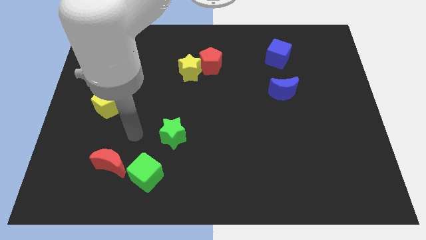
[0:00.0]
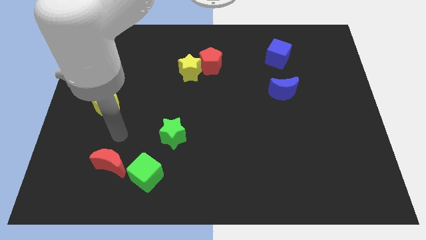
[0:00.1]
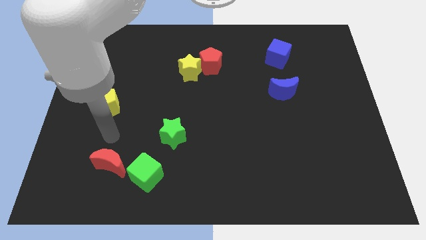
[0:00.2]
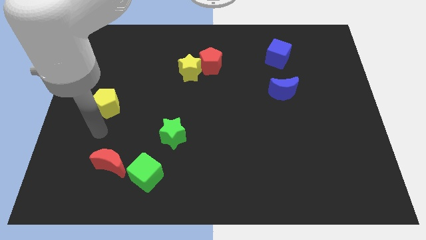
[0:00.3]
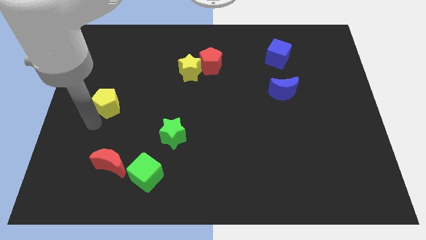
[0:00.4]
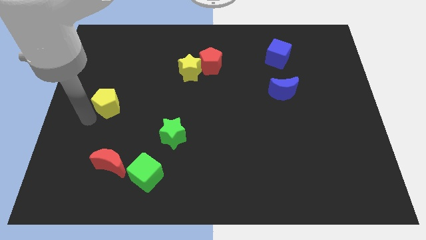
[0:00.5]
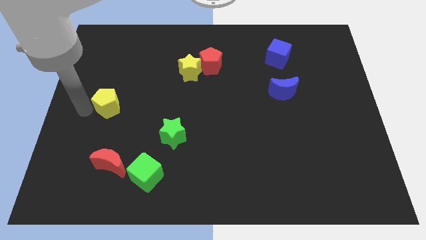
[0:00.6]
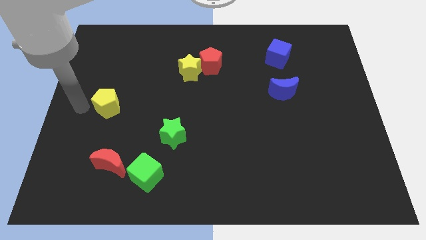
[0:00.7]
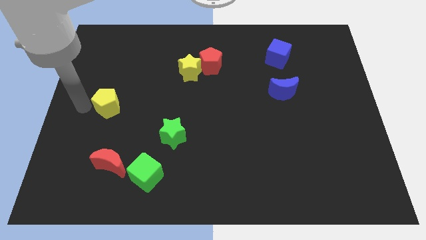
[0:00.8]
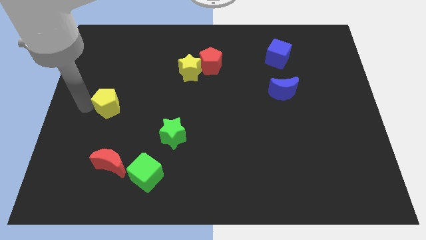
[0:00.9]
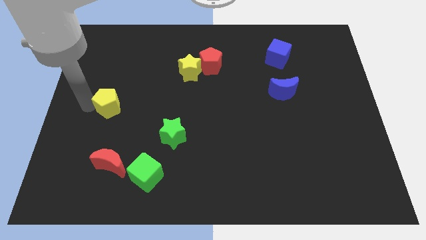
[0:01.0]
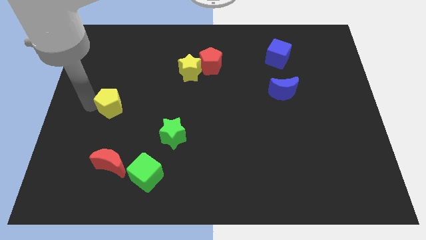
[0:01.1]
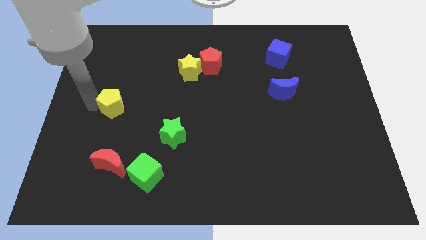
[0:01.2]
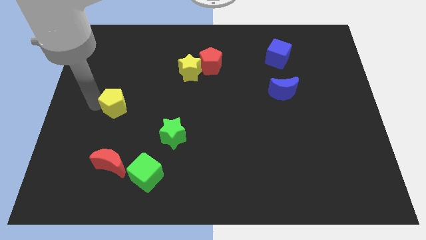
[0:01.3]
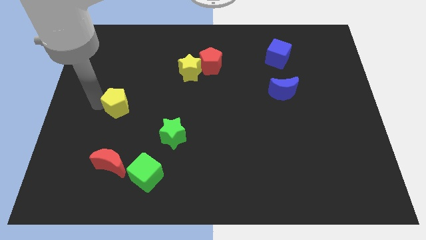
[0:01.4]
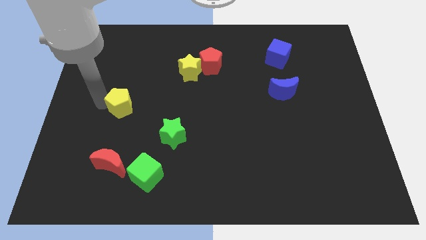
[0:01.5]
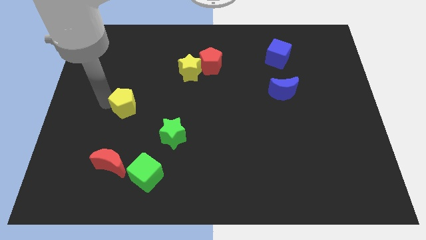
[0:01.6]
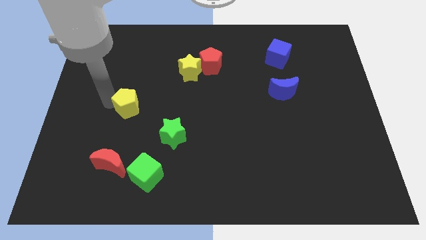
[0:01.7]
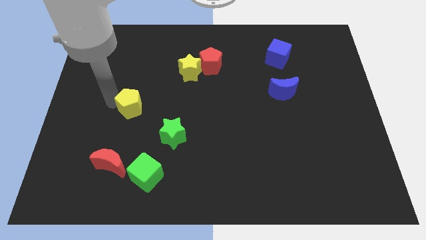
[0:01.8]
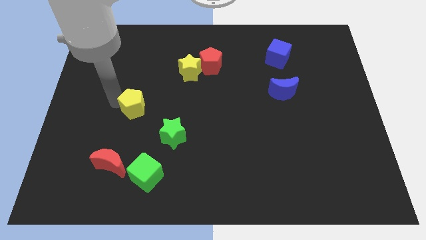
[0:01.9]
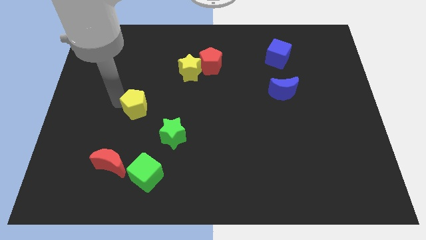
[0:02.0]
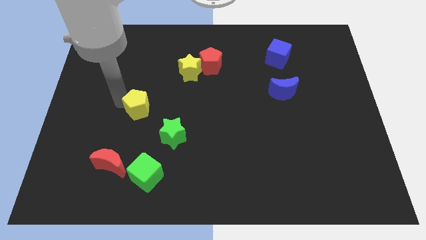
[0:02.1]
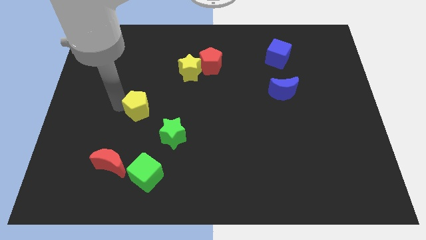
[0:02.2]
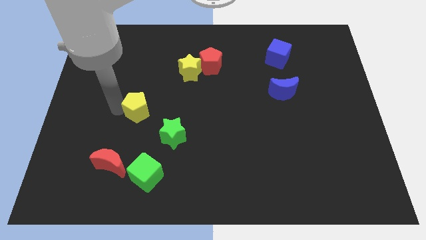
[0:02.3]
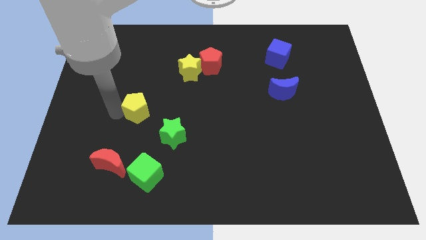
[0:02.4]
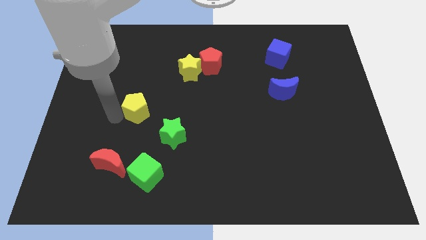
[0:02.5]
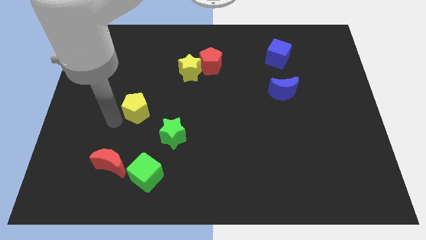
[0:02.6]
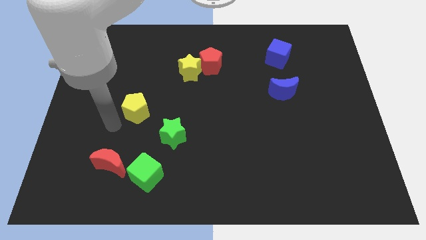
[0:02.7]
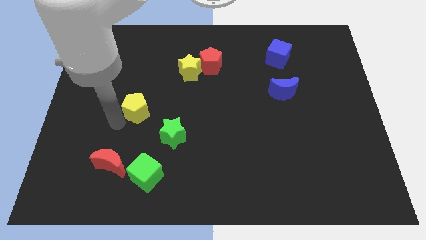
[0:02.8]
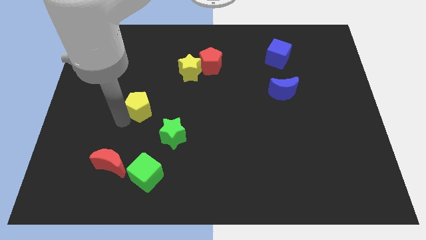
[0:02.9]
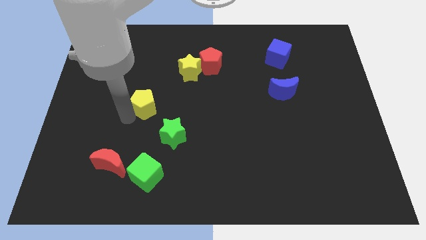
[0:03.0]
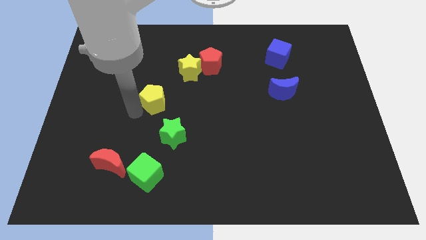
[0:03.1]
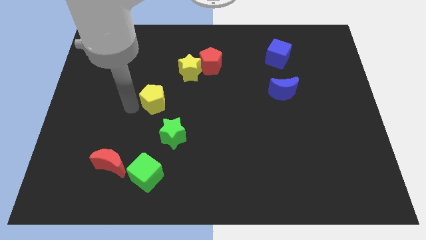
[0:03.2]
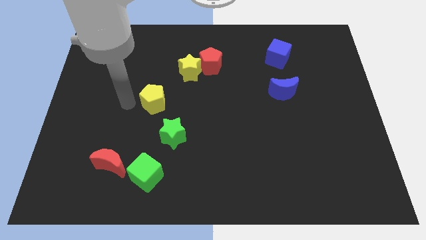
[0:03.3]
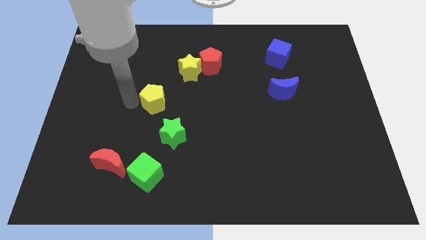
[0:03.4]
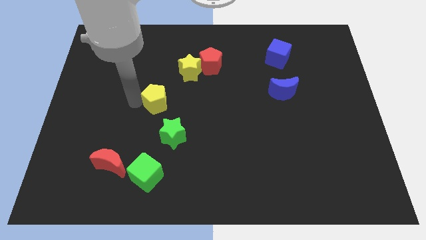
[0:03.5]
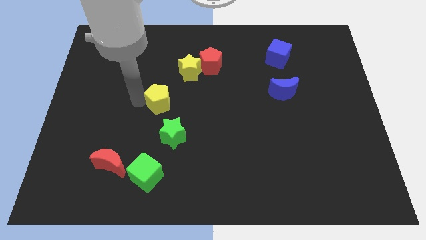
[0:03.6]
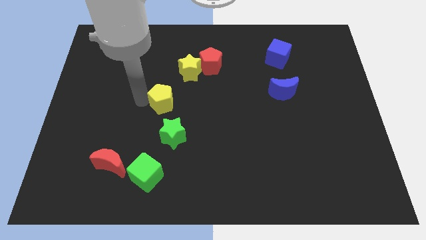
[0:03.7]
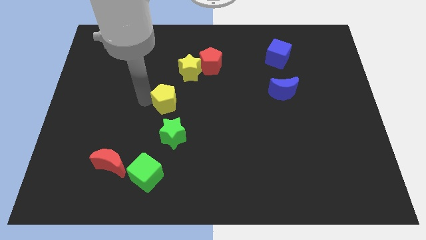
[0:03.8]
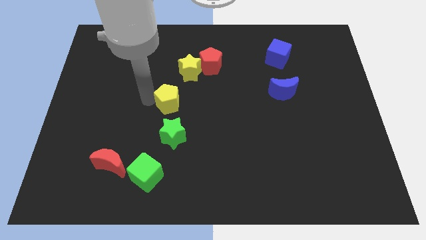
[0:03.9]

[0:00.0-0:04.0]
push the yellow pentagon to the bottom side of the yellow star

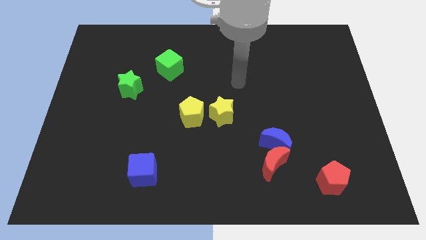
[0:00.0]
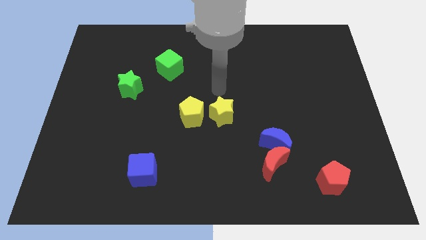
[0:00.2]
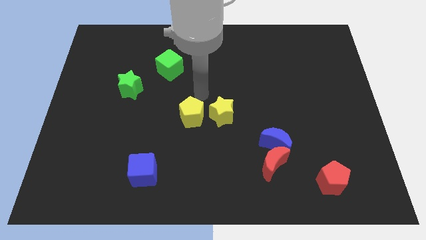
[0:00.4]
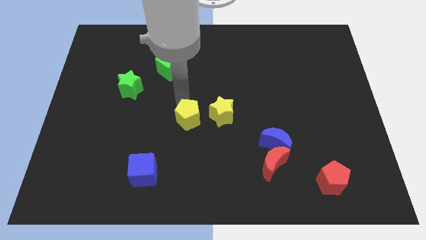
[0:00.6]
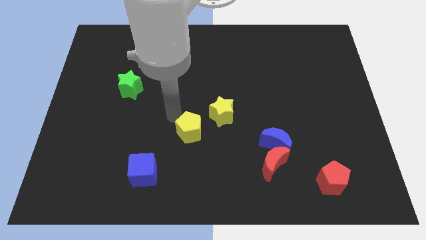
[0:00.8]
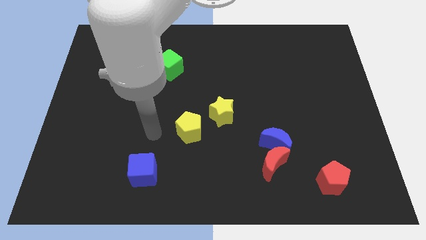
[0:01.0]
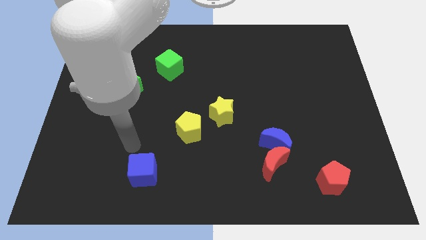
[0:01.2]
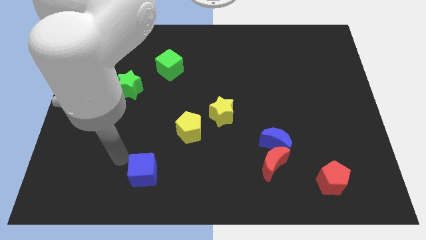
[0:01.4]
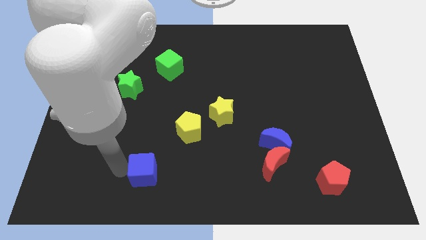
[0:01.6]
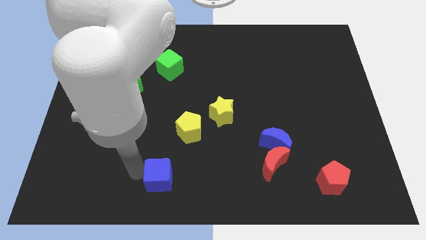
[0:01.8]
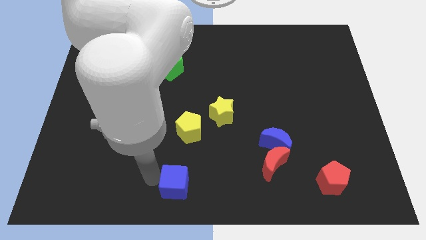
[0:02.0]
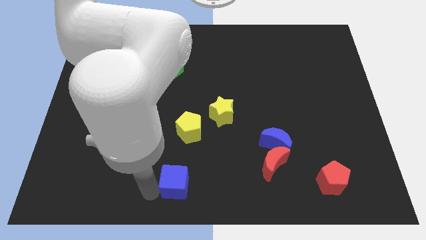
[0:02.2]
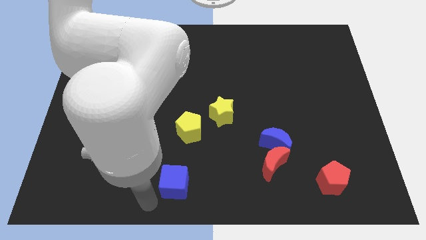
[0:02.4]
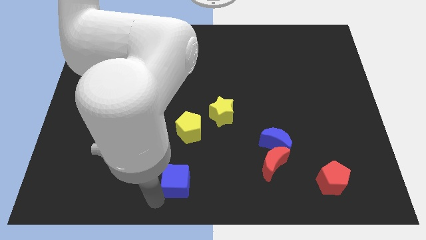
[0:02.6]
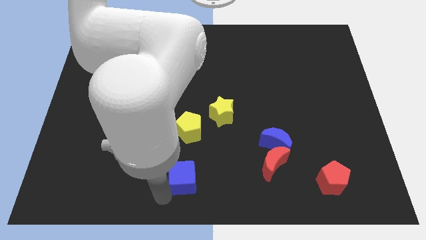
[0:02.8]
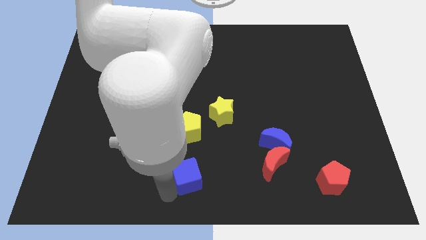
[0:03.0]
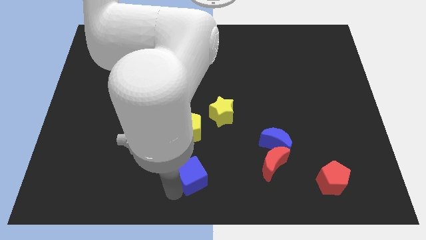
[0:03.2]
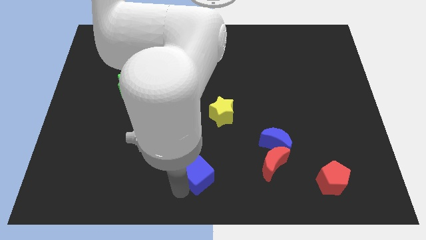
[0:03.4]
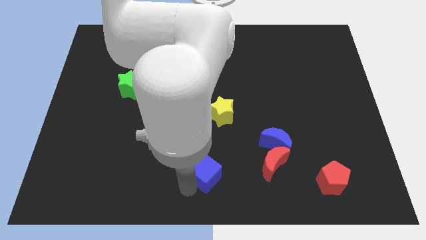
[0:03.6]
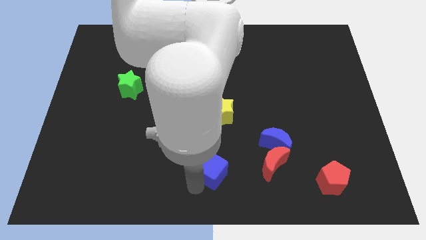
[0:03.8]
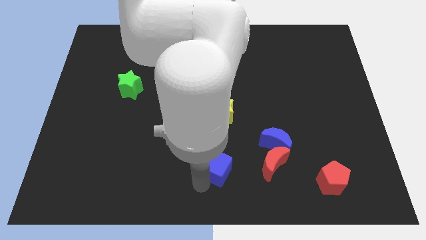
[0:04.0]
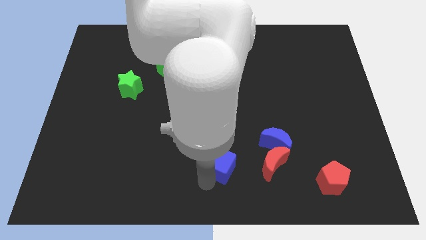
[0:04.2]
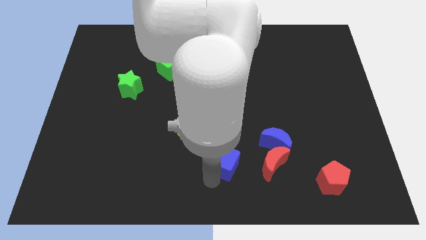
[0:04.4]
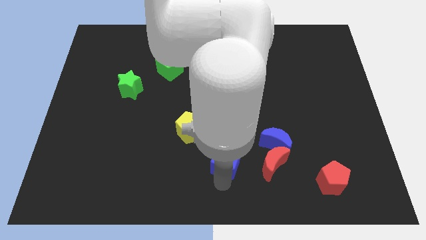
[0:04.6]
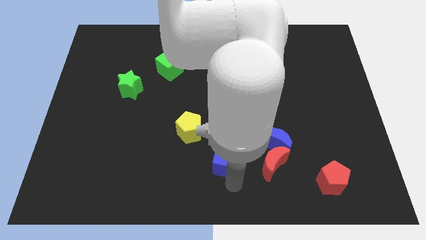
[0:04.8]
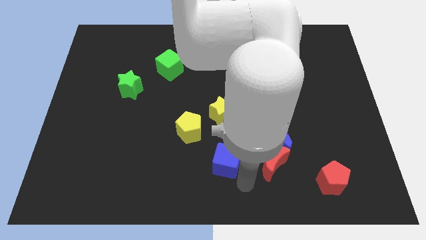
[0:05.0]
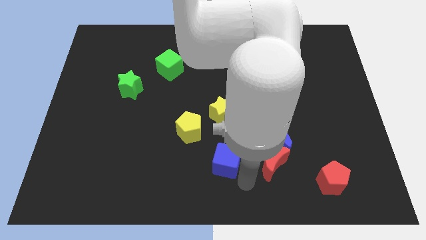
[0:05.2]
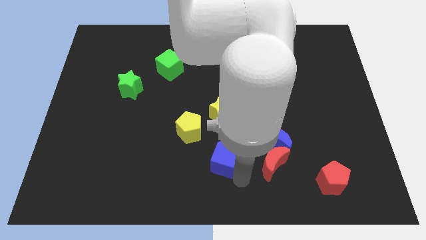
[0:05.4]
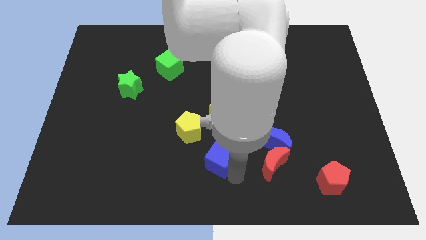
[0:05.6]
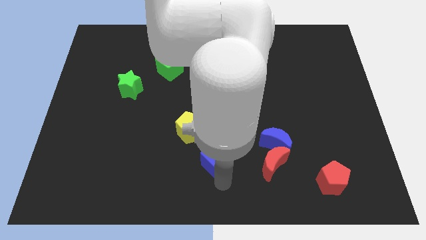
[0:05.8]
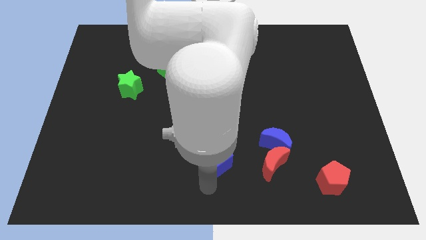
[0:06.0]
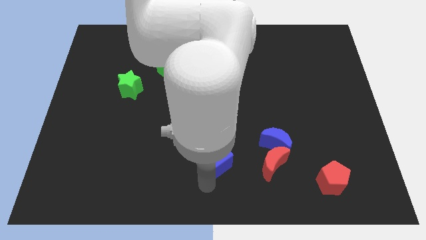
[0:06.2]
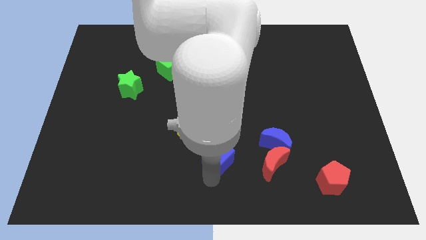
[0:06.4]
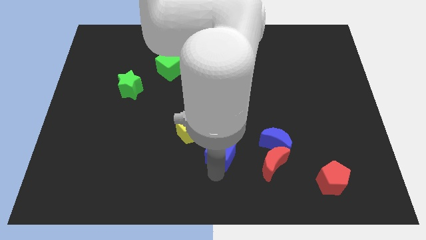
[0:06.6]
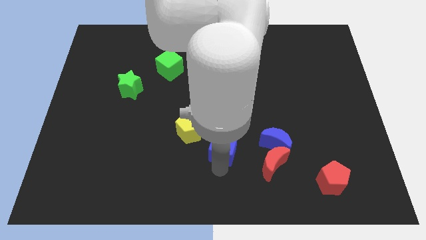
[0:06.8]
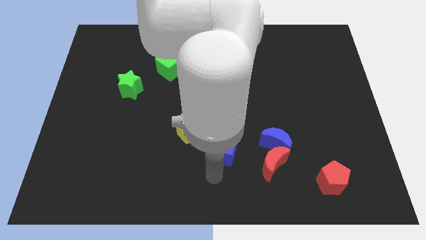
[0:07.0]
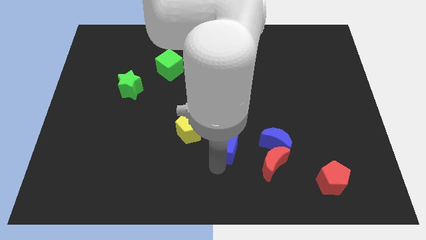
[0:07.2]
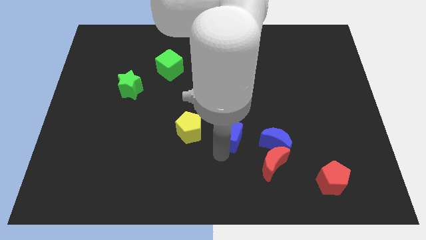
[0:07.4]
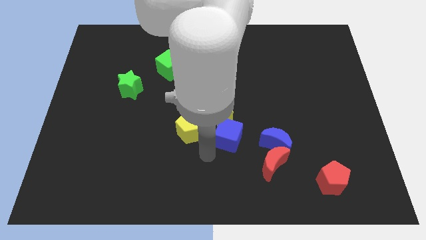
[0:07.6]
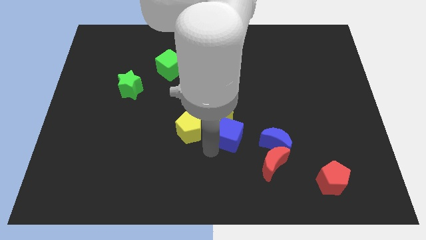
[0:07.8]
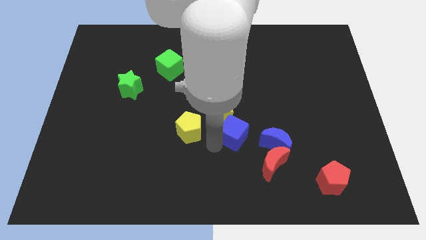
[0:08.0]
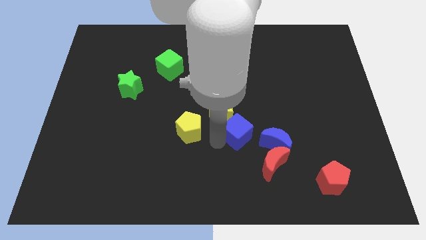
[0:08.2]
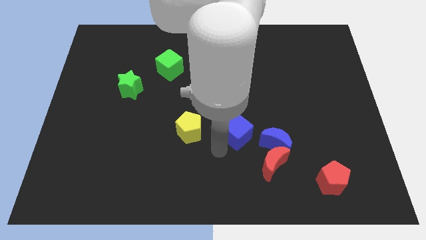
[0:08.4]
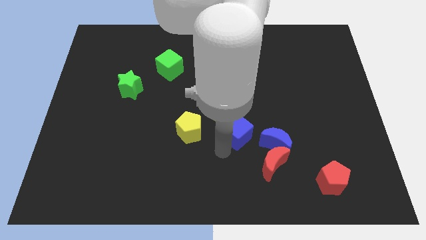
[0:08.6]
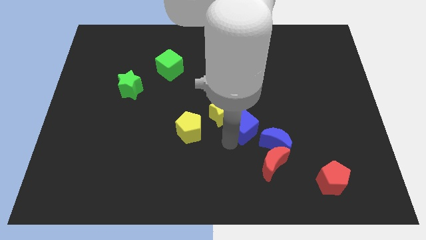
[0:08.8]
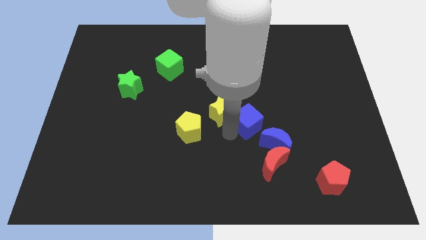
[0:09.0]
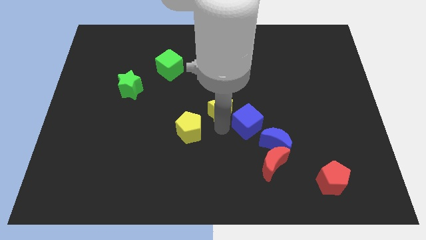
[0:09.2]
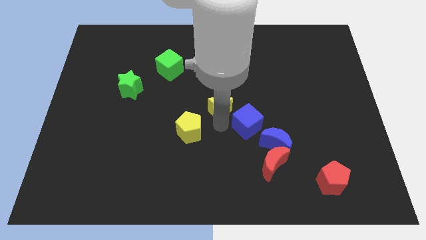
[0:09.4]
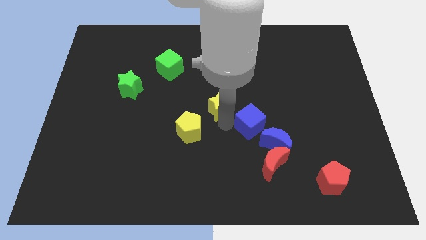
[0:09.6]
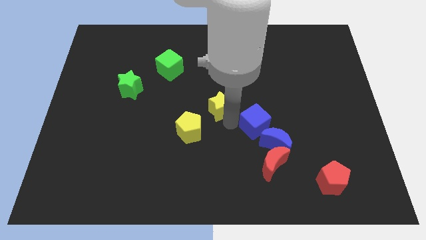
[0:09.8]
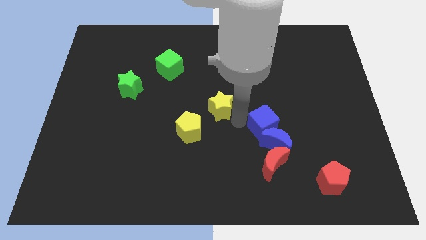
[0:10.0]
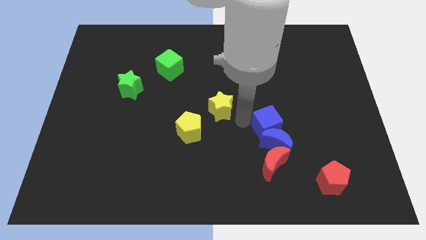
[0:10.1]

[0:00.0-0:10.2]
slide the blue cube to the top right side of the blue moon
